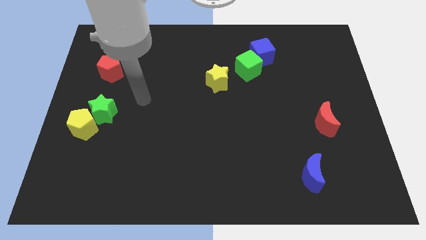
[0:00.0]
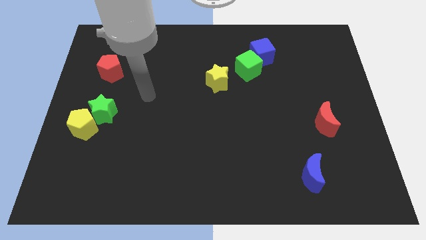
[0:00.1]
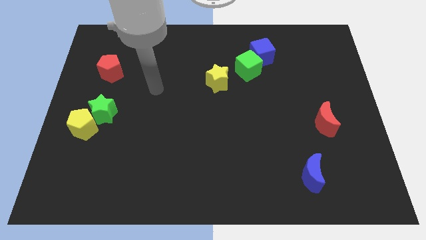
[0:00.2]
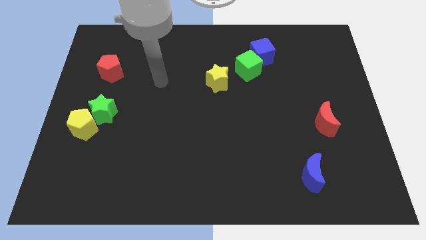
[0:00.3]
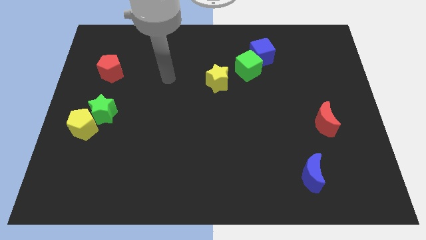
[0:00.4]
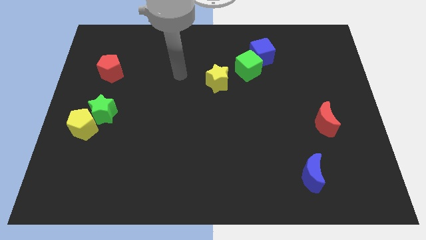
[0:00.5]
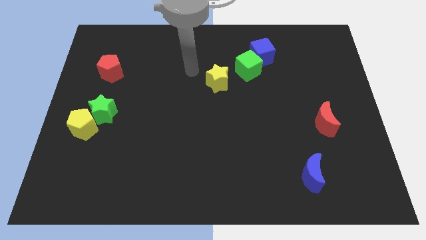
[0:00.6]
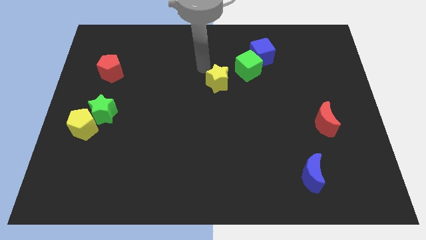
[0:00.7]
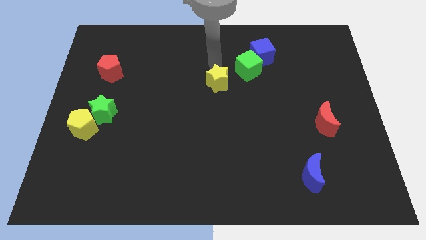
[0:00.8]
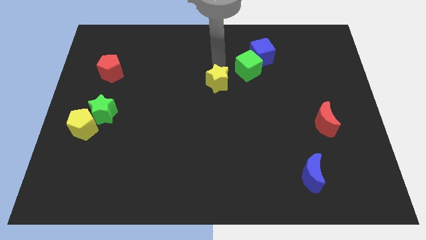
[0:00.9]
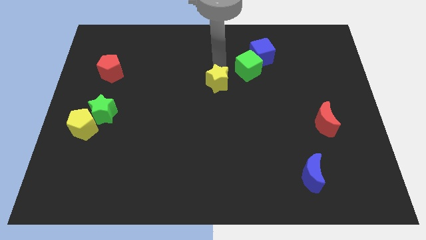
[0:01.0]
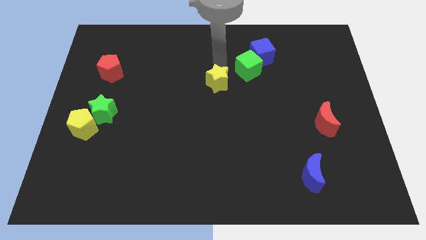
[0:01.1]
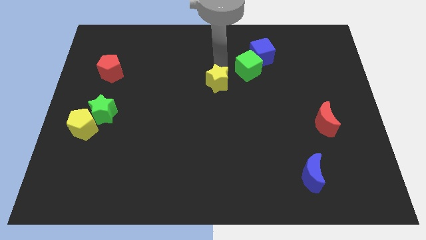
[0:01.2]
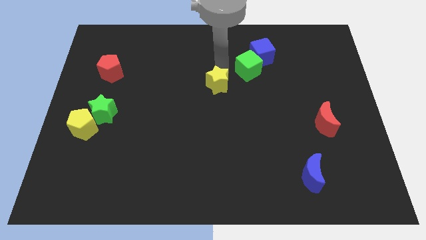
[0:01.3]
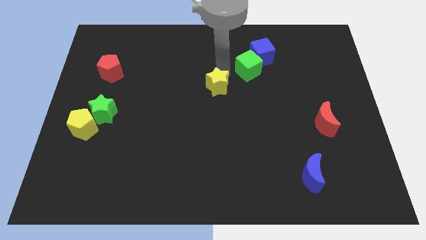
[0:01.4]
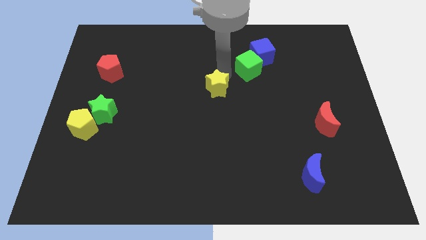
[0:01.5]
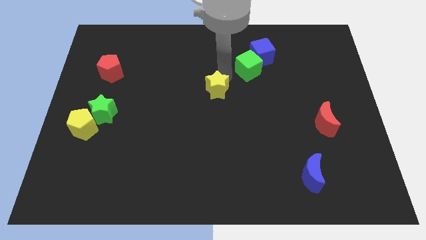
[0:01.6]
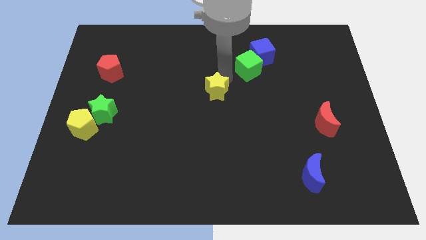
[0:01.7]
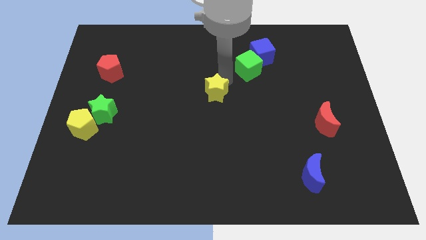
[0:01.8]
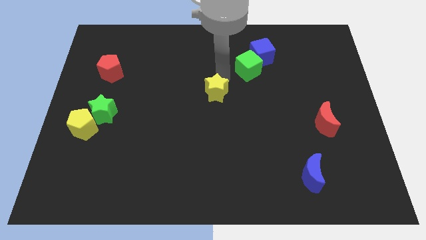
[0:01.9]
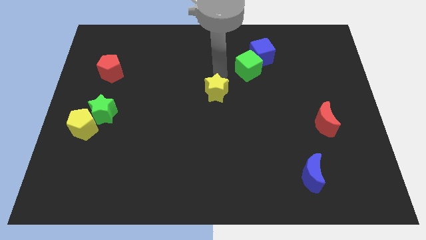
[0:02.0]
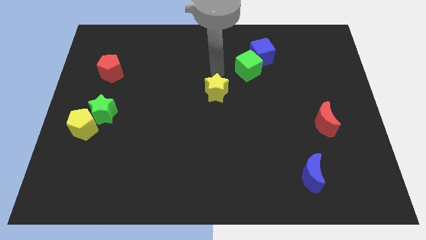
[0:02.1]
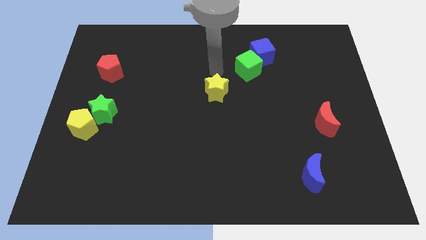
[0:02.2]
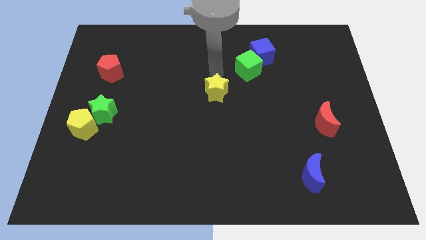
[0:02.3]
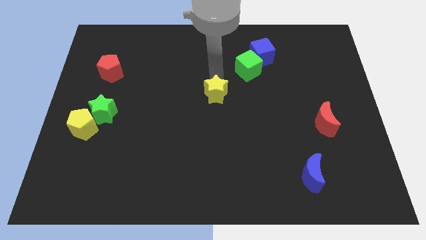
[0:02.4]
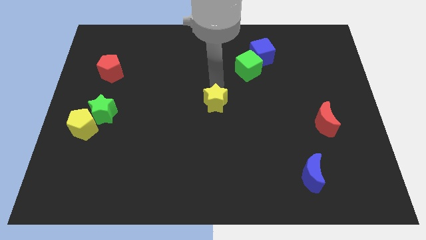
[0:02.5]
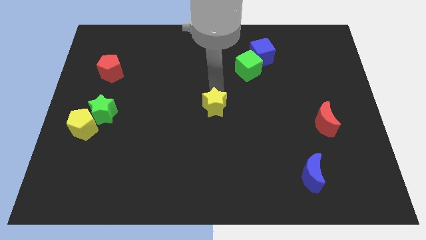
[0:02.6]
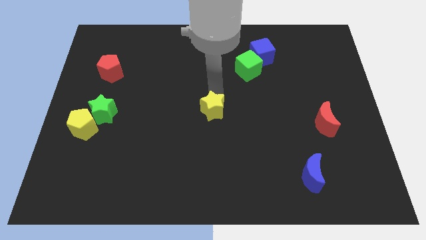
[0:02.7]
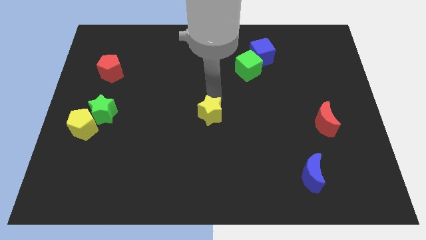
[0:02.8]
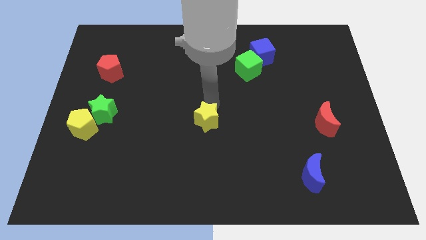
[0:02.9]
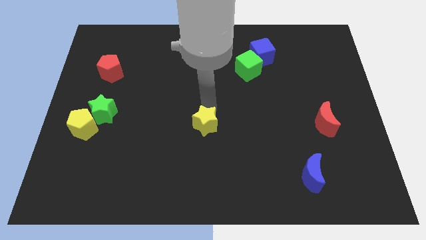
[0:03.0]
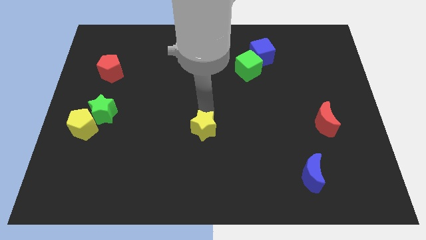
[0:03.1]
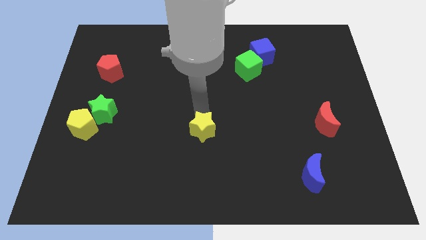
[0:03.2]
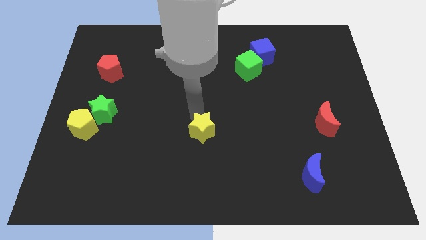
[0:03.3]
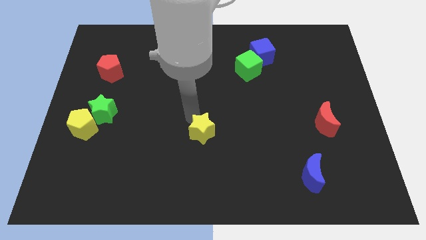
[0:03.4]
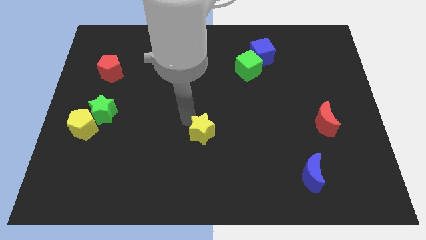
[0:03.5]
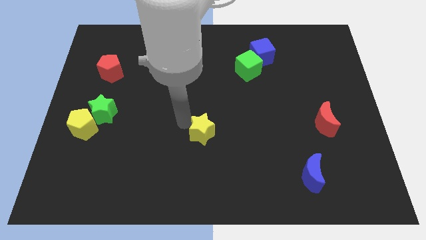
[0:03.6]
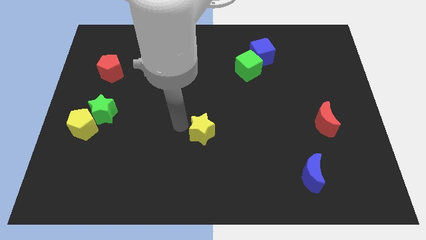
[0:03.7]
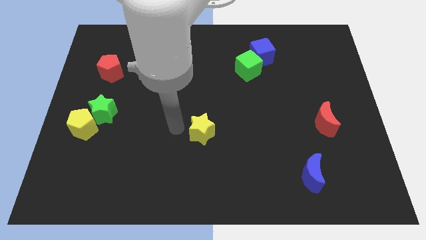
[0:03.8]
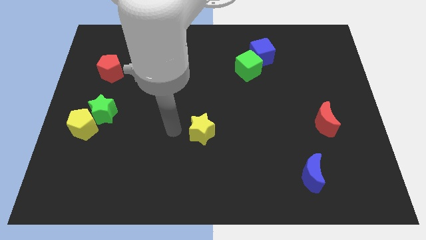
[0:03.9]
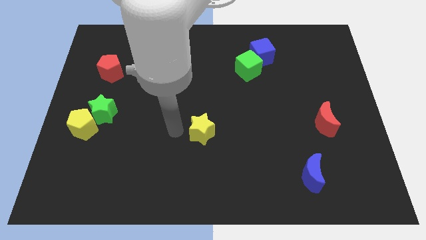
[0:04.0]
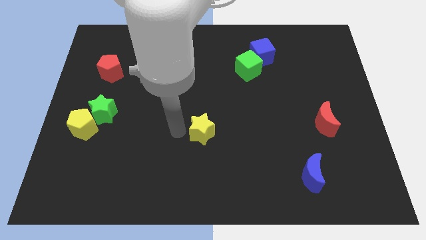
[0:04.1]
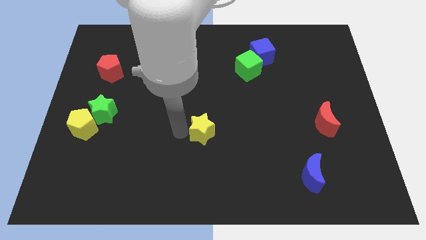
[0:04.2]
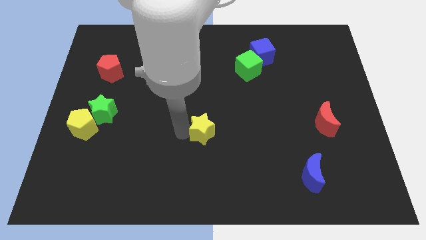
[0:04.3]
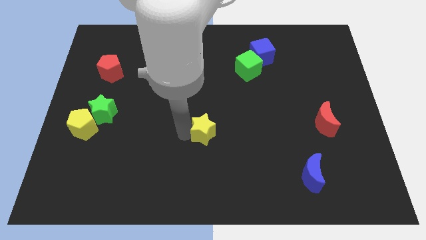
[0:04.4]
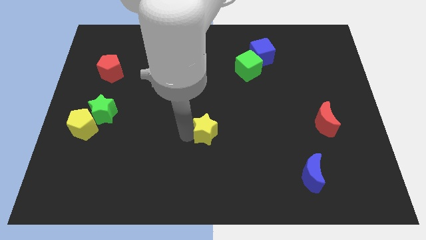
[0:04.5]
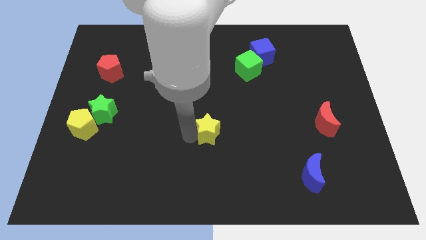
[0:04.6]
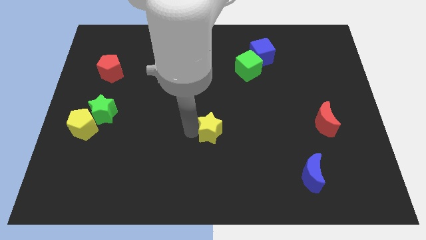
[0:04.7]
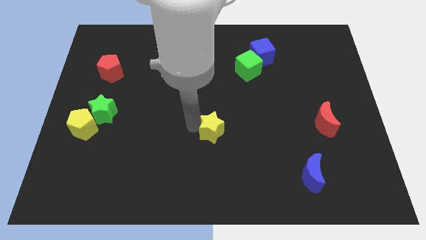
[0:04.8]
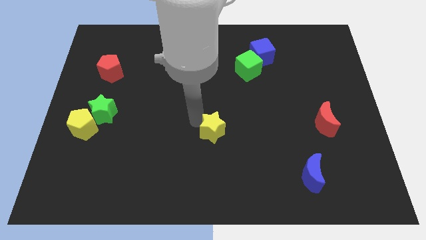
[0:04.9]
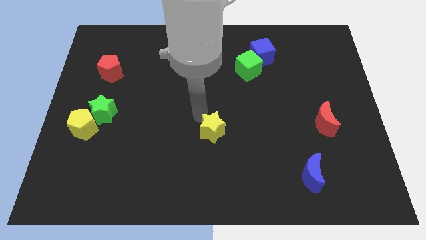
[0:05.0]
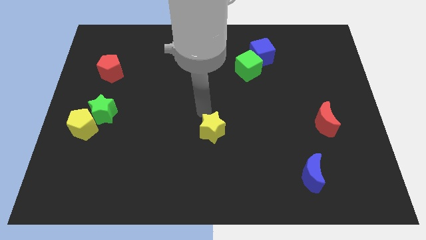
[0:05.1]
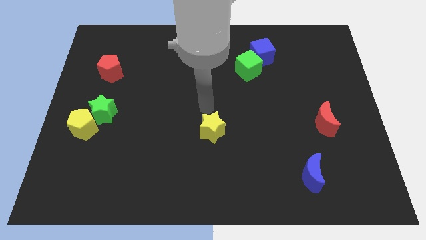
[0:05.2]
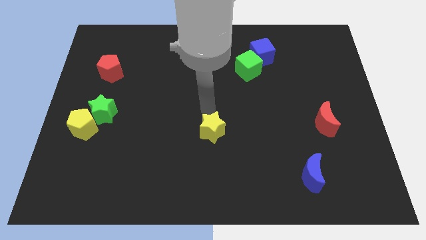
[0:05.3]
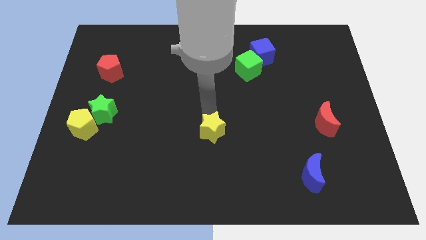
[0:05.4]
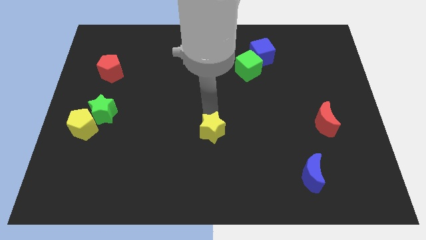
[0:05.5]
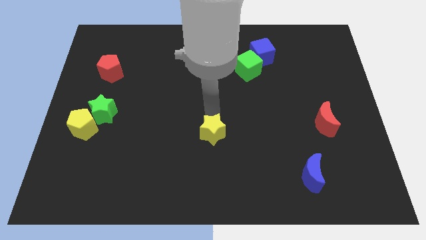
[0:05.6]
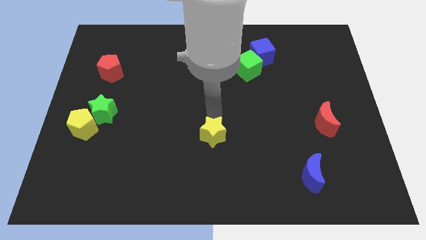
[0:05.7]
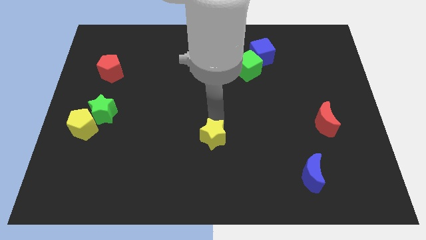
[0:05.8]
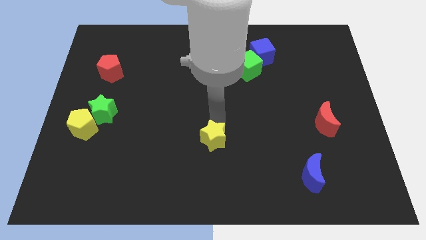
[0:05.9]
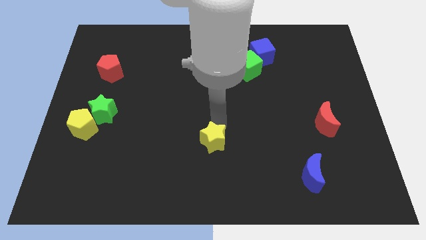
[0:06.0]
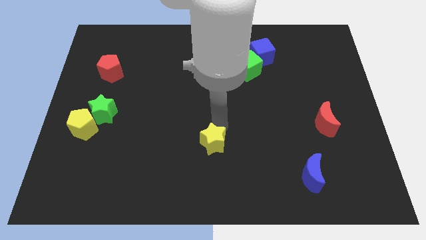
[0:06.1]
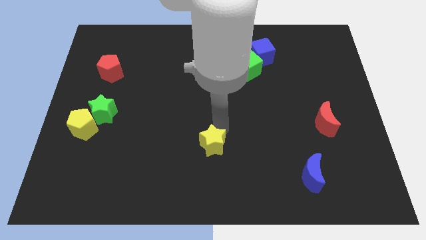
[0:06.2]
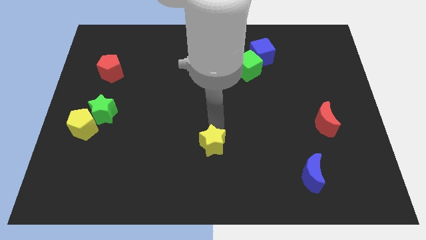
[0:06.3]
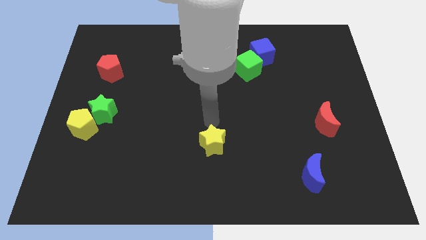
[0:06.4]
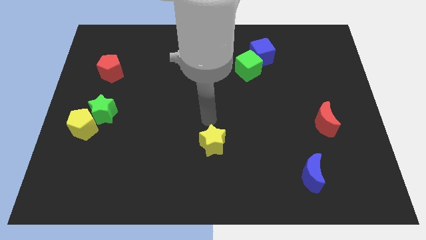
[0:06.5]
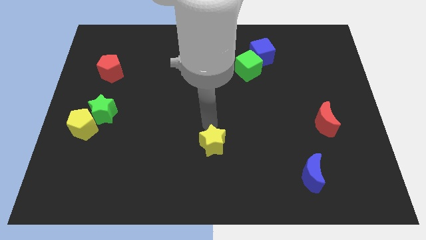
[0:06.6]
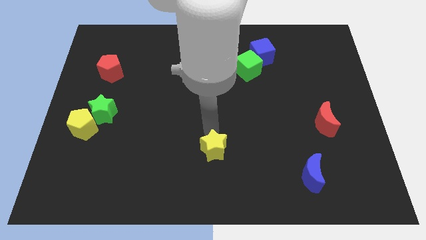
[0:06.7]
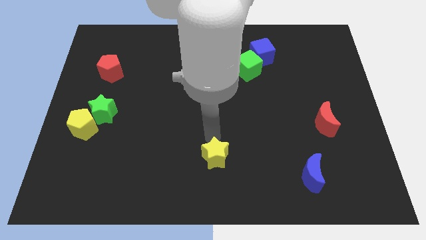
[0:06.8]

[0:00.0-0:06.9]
move the yellow star to the bottom side
